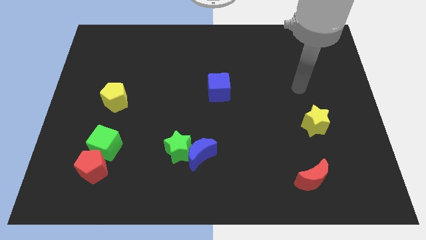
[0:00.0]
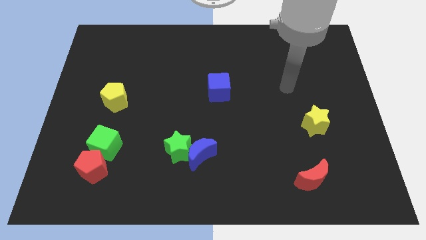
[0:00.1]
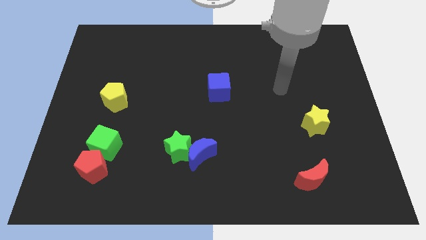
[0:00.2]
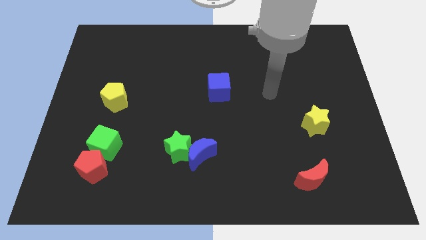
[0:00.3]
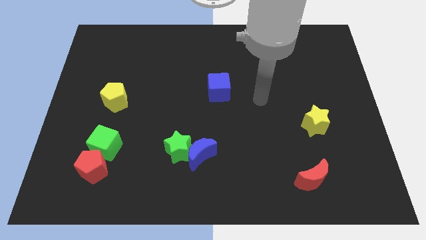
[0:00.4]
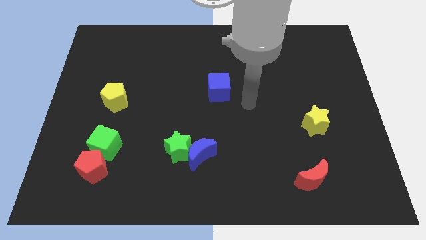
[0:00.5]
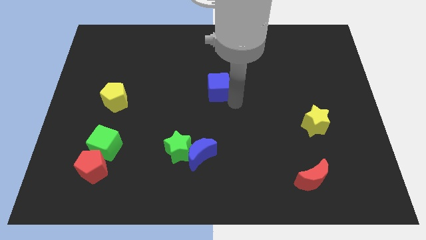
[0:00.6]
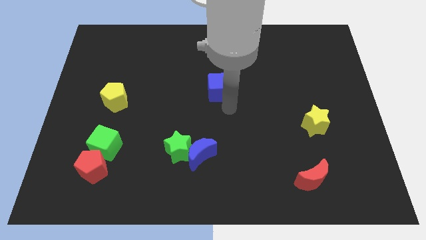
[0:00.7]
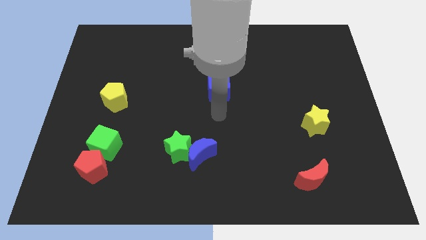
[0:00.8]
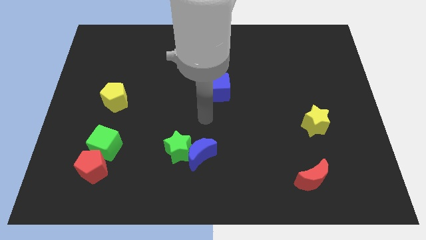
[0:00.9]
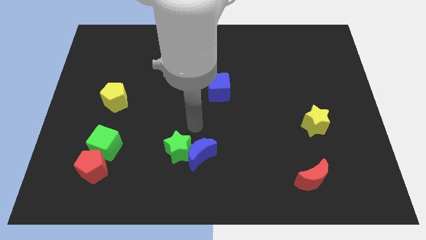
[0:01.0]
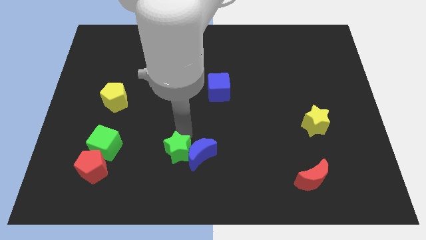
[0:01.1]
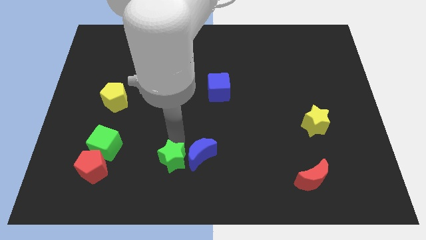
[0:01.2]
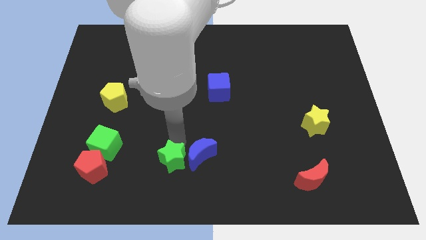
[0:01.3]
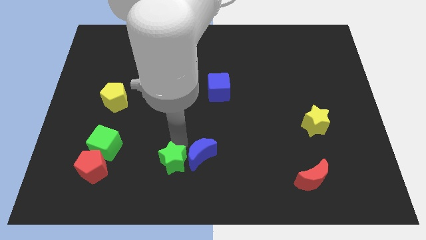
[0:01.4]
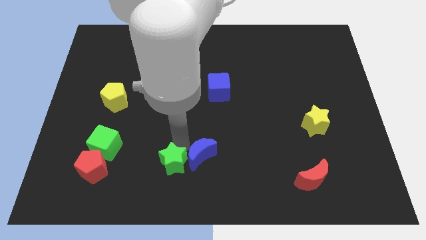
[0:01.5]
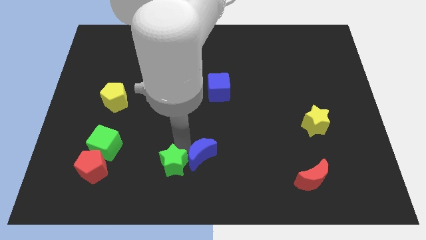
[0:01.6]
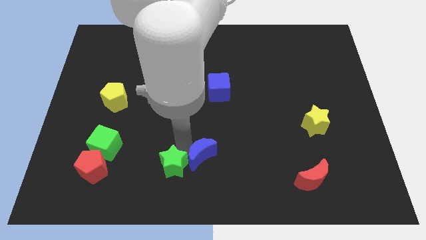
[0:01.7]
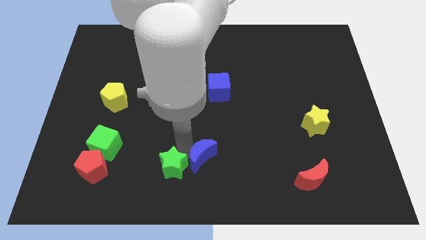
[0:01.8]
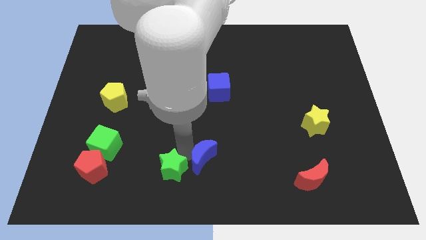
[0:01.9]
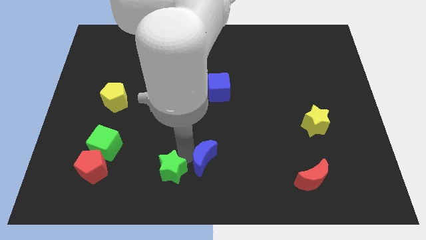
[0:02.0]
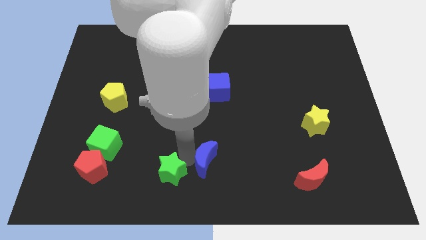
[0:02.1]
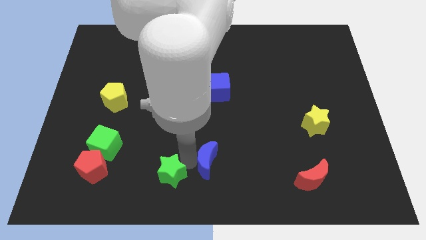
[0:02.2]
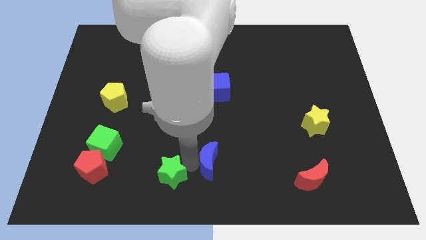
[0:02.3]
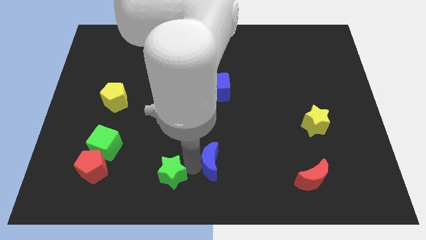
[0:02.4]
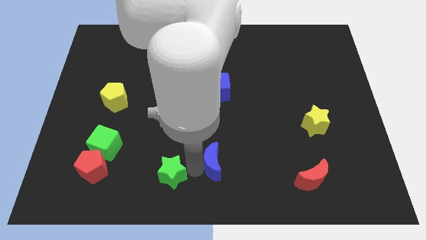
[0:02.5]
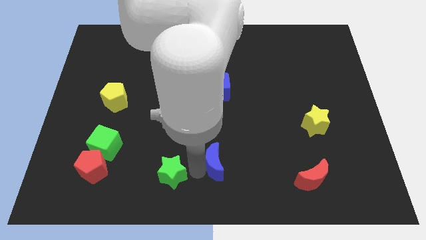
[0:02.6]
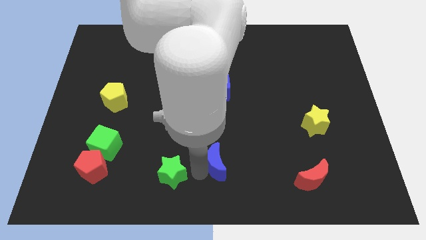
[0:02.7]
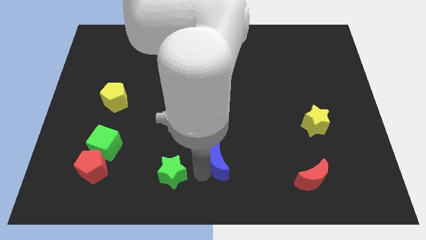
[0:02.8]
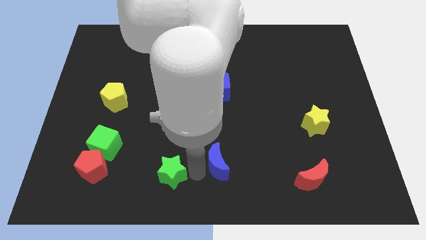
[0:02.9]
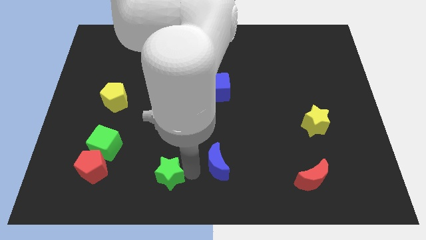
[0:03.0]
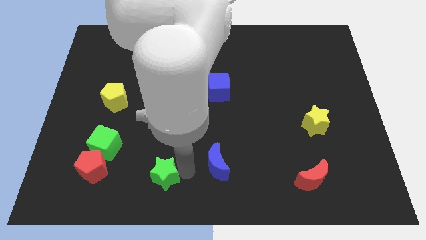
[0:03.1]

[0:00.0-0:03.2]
move the blue moon away from the green star

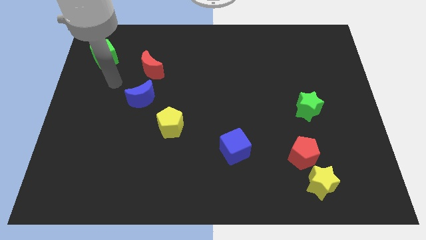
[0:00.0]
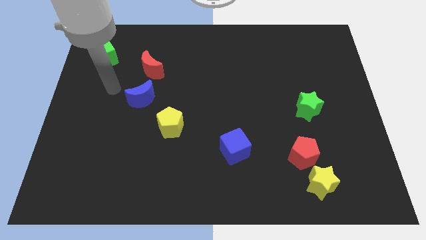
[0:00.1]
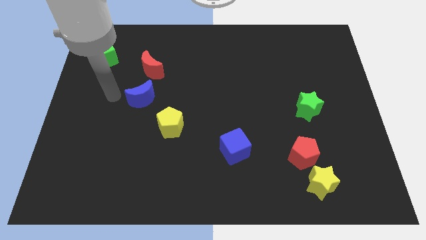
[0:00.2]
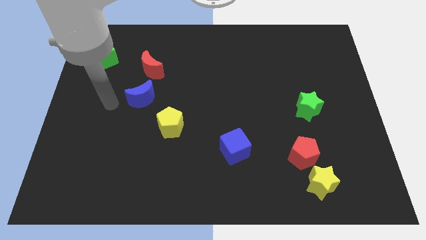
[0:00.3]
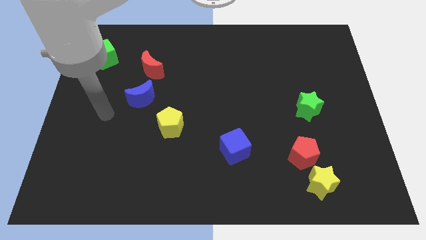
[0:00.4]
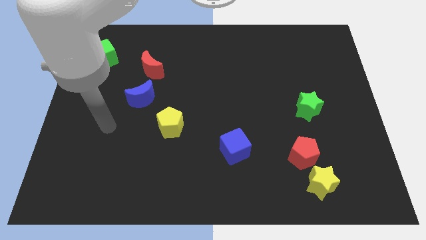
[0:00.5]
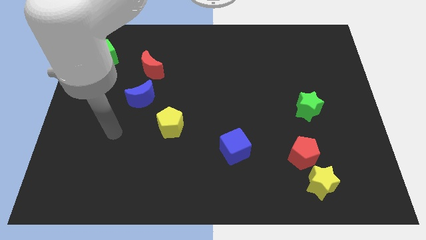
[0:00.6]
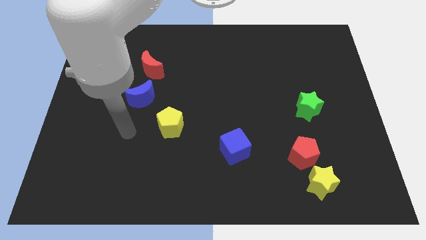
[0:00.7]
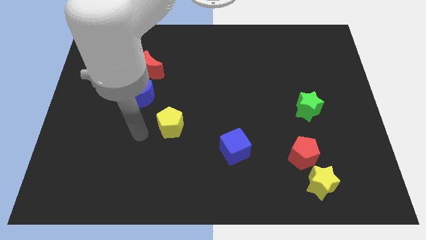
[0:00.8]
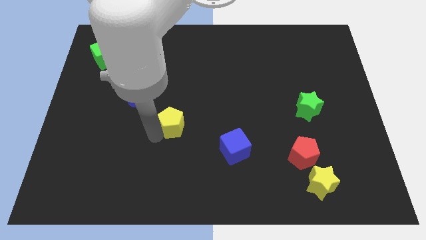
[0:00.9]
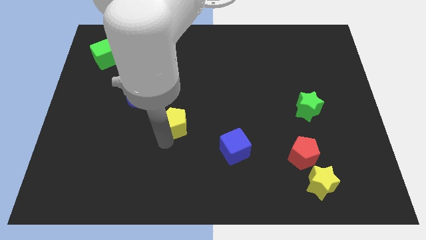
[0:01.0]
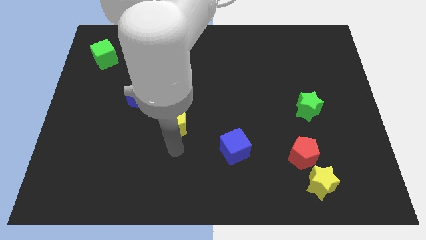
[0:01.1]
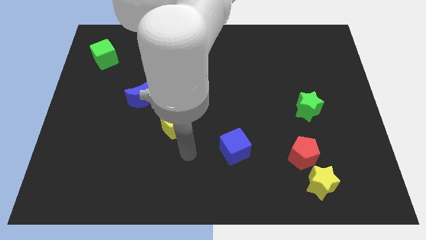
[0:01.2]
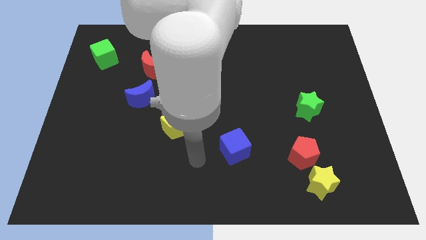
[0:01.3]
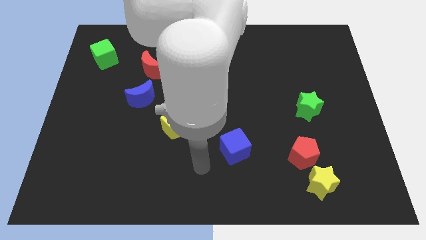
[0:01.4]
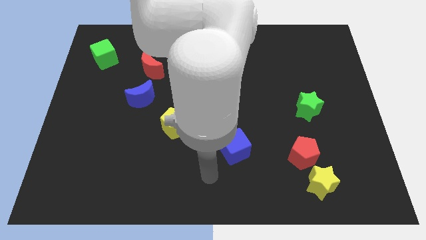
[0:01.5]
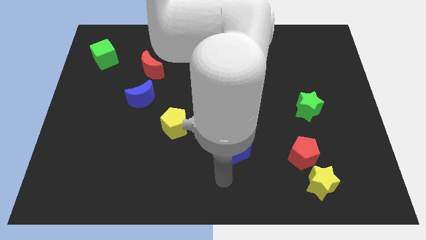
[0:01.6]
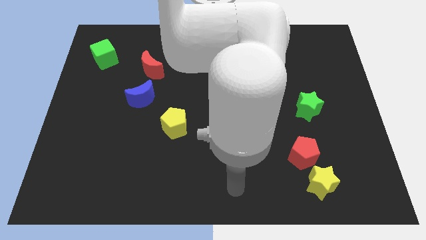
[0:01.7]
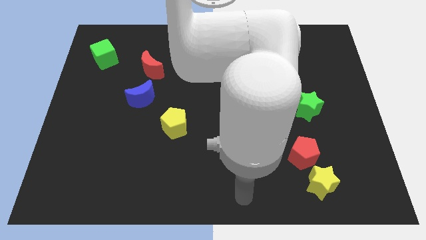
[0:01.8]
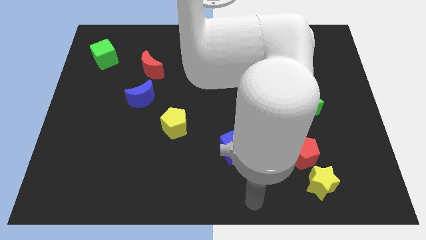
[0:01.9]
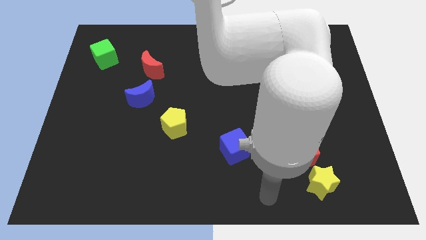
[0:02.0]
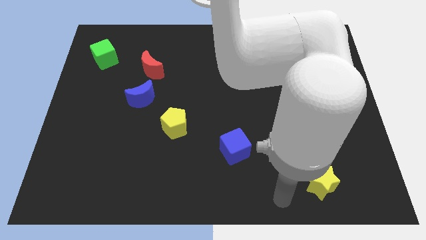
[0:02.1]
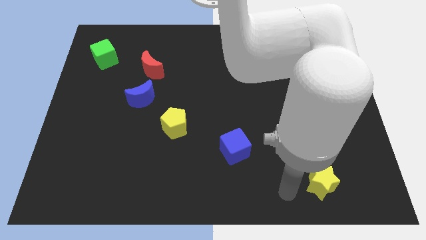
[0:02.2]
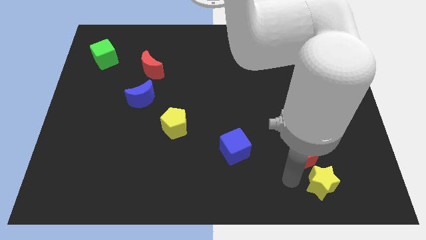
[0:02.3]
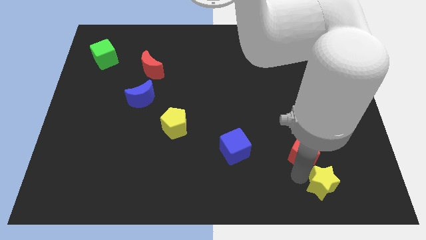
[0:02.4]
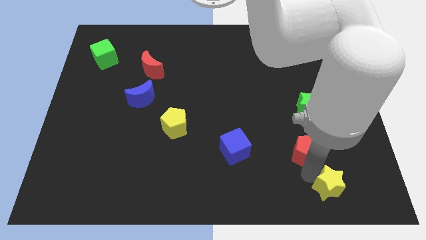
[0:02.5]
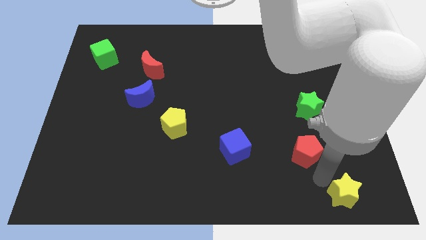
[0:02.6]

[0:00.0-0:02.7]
move the red pentagon away from the yellow star

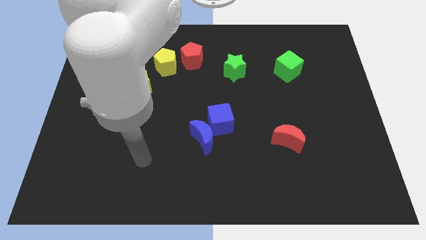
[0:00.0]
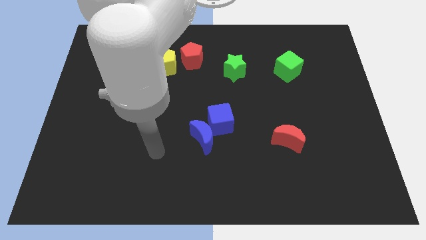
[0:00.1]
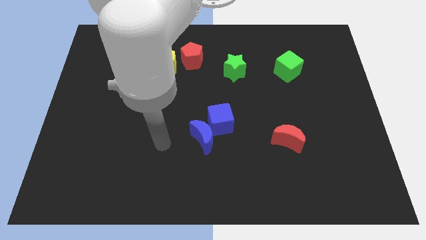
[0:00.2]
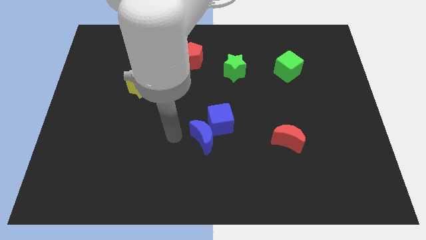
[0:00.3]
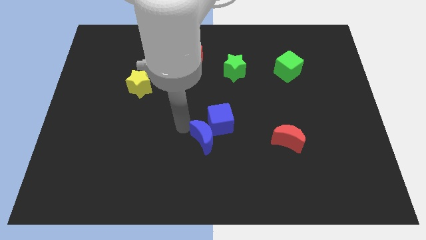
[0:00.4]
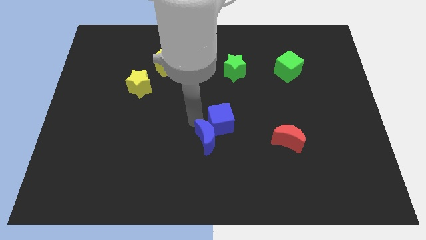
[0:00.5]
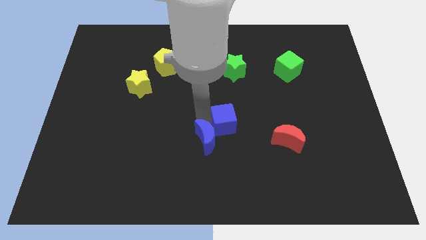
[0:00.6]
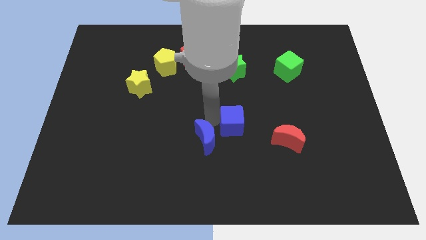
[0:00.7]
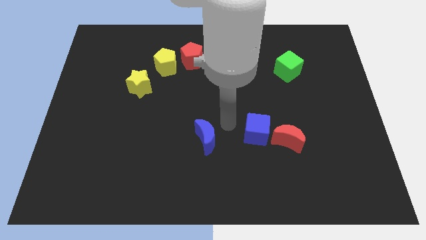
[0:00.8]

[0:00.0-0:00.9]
separate the blue moon from the blue cube

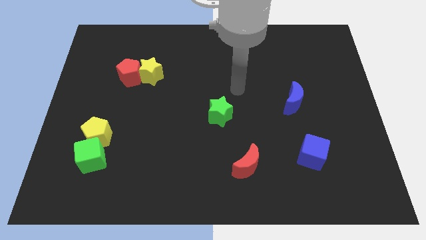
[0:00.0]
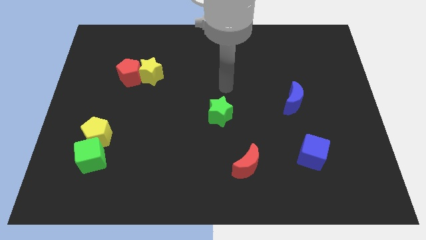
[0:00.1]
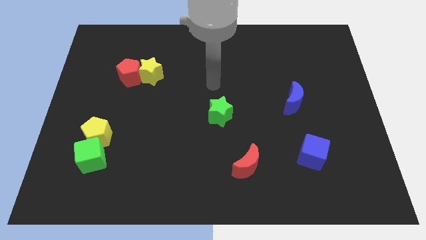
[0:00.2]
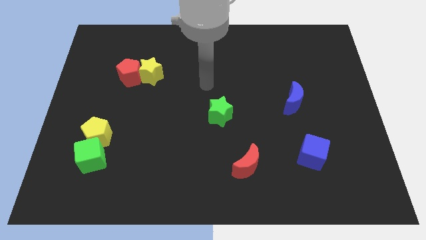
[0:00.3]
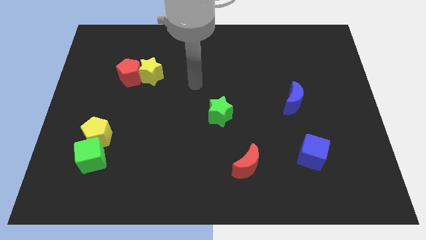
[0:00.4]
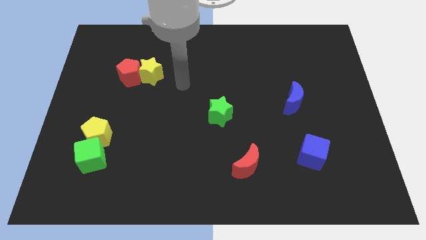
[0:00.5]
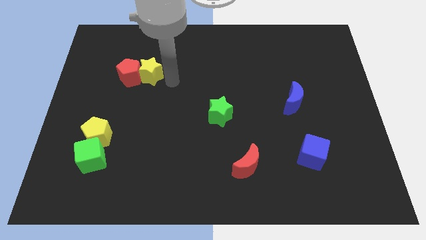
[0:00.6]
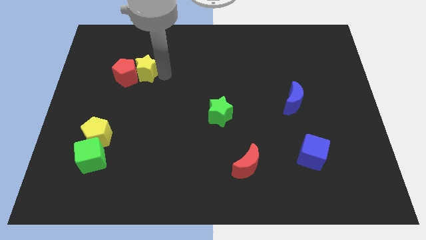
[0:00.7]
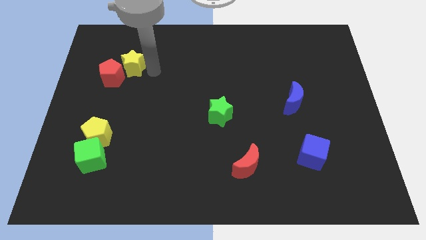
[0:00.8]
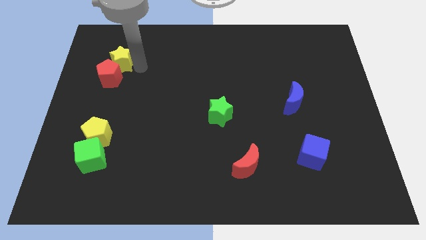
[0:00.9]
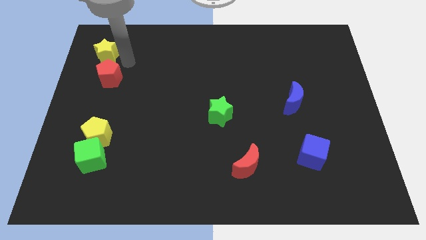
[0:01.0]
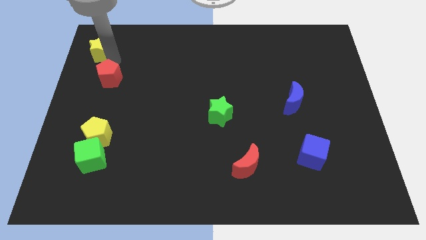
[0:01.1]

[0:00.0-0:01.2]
separate the red pentagon from the yellow star

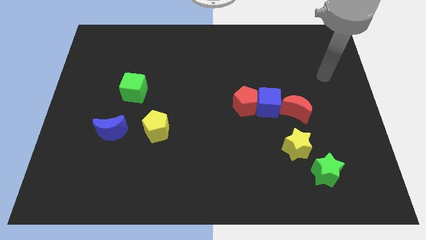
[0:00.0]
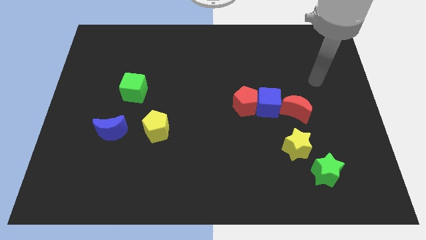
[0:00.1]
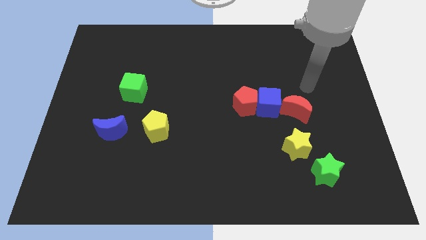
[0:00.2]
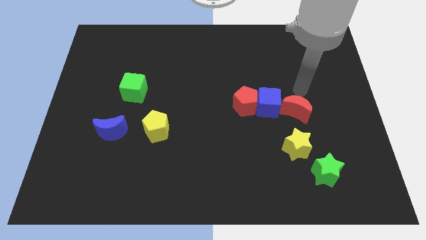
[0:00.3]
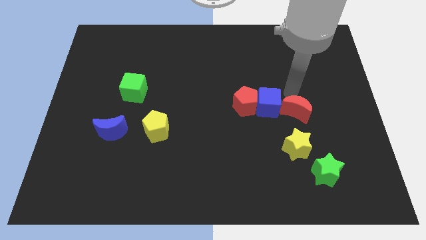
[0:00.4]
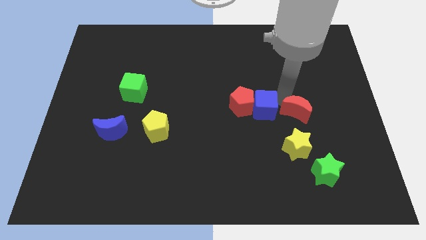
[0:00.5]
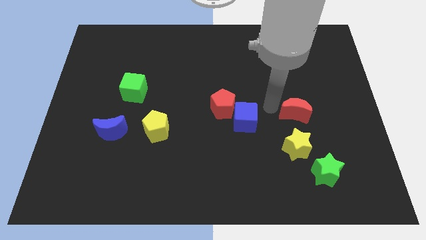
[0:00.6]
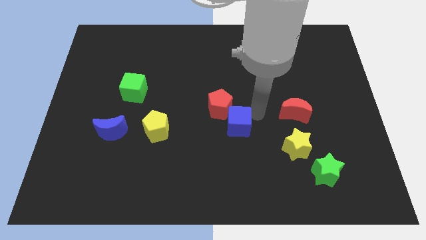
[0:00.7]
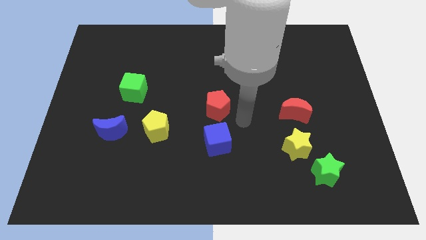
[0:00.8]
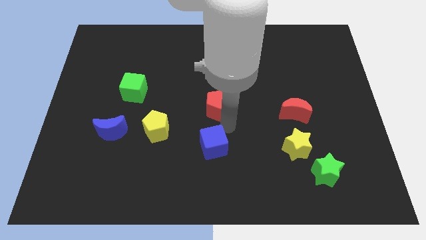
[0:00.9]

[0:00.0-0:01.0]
move the red pentagon away from the blue cube

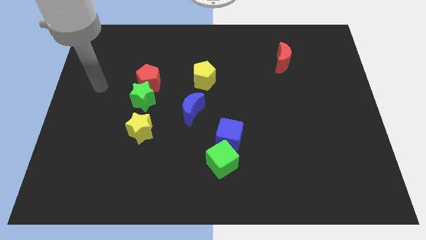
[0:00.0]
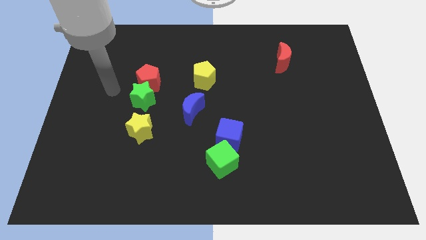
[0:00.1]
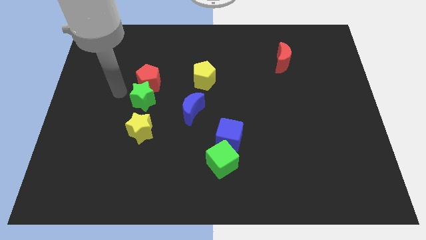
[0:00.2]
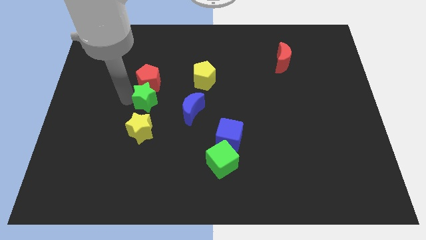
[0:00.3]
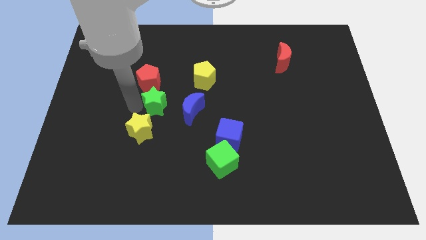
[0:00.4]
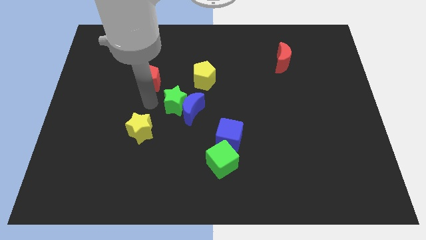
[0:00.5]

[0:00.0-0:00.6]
separate the red pentagon from the green star
